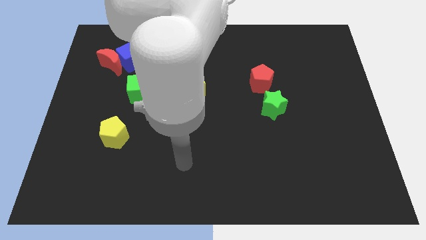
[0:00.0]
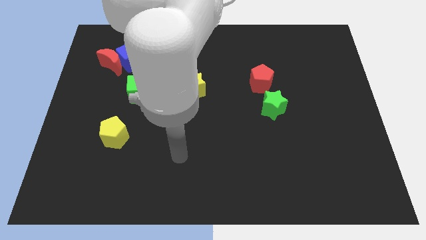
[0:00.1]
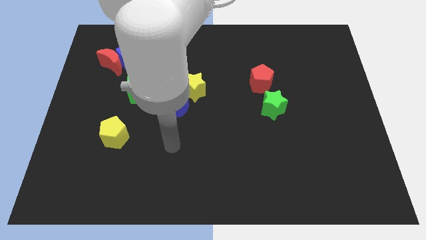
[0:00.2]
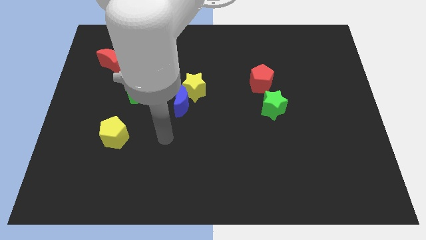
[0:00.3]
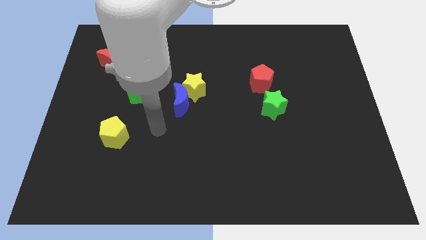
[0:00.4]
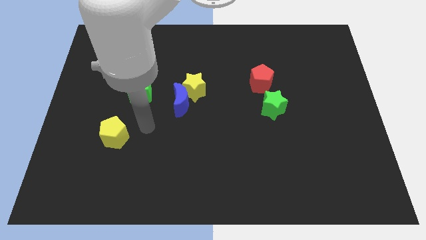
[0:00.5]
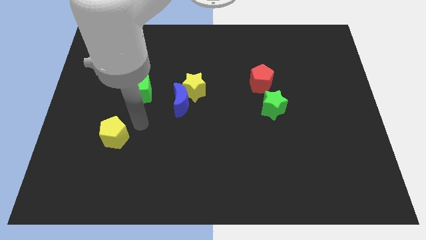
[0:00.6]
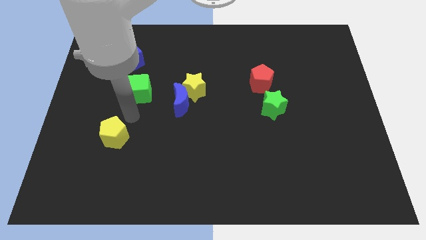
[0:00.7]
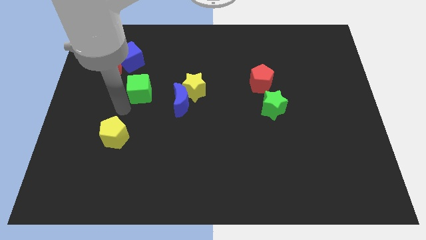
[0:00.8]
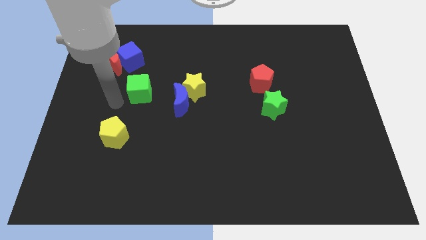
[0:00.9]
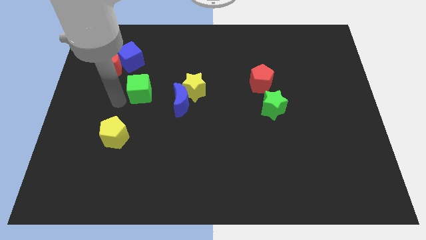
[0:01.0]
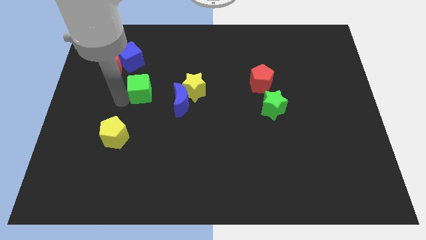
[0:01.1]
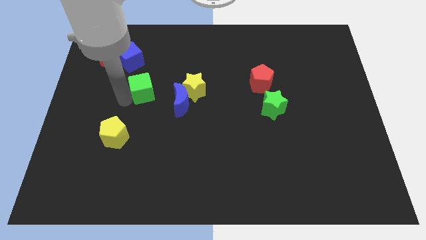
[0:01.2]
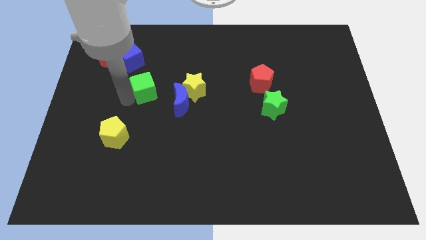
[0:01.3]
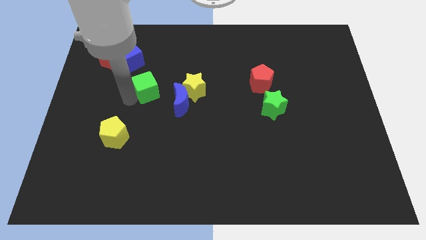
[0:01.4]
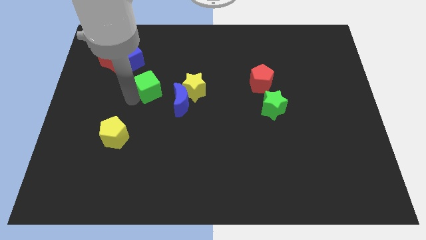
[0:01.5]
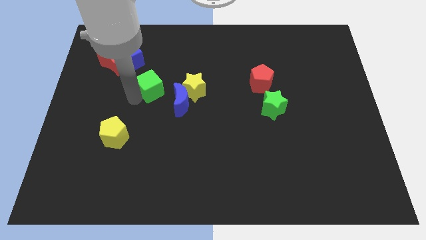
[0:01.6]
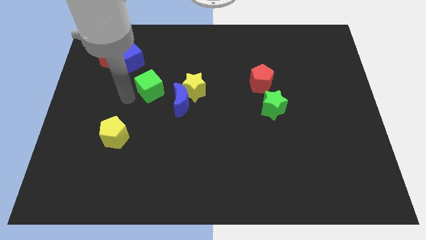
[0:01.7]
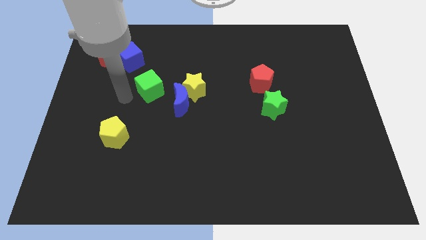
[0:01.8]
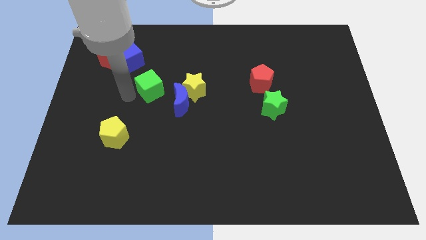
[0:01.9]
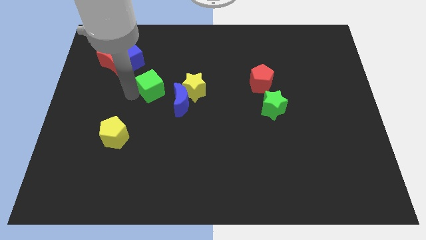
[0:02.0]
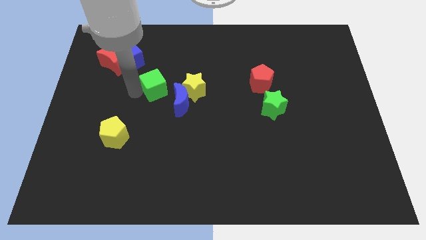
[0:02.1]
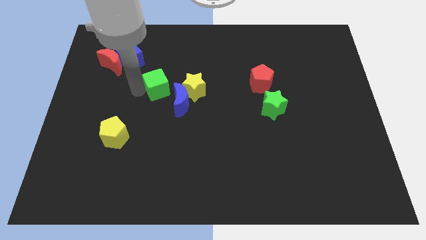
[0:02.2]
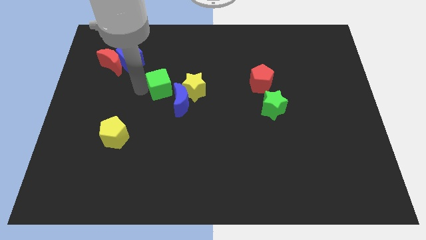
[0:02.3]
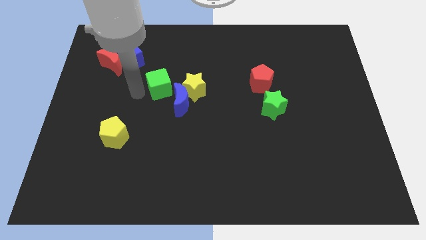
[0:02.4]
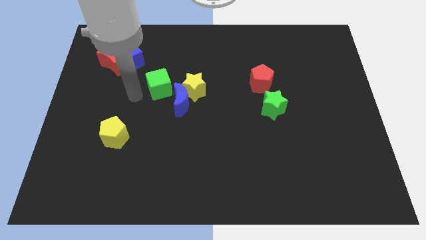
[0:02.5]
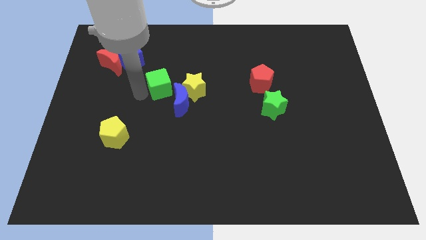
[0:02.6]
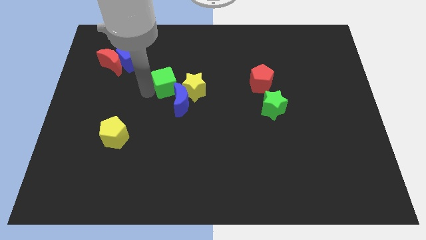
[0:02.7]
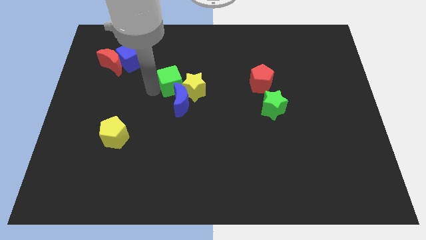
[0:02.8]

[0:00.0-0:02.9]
slightly move the green cube right

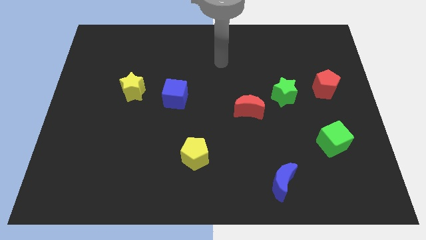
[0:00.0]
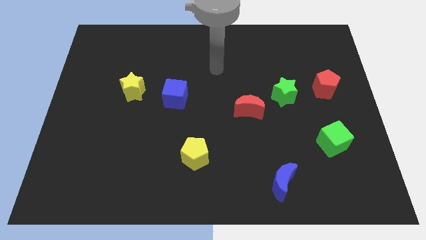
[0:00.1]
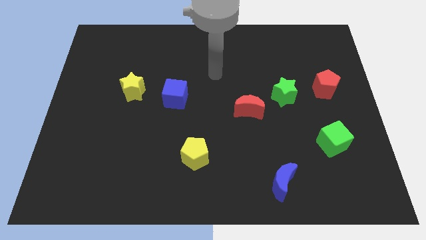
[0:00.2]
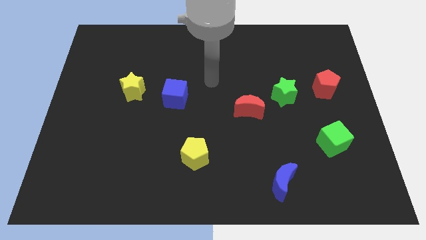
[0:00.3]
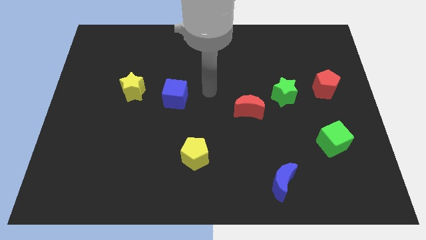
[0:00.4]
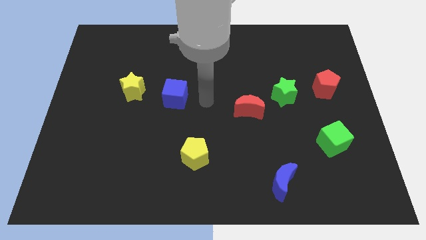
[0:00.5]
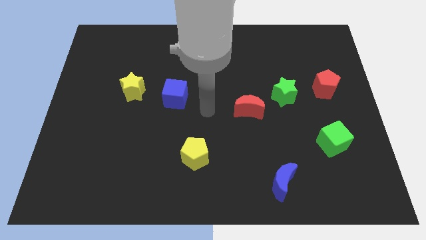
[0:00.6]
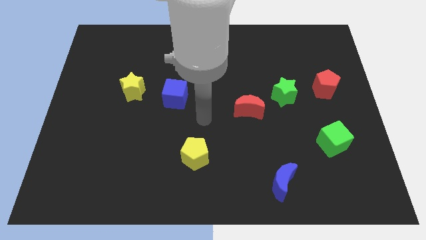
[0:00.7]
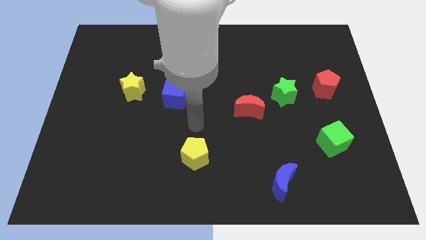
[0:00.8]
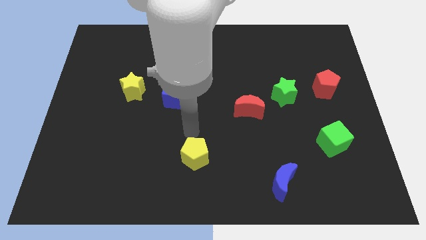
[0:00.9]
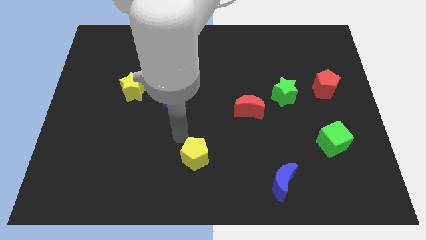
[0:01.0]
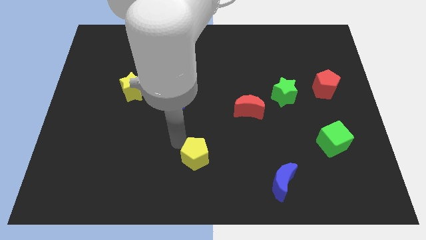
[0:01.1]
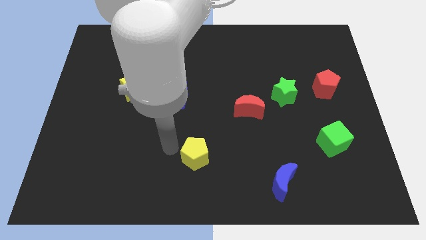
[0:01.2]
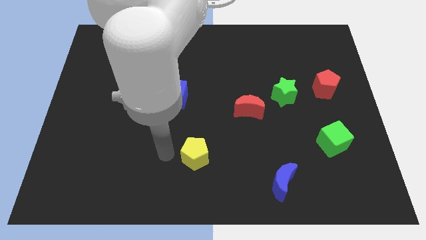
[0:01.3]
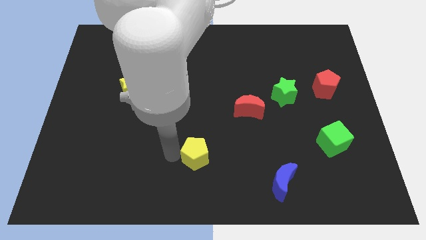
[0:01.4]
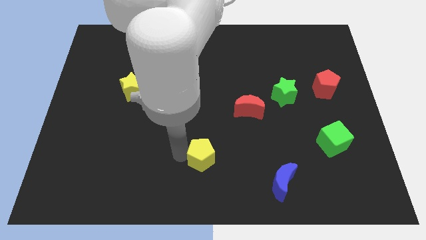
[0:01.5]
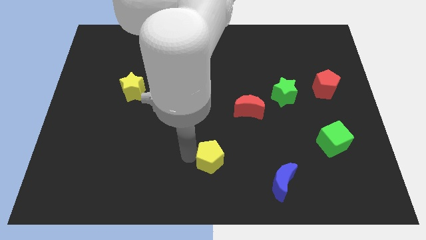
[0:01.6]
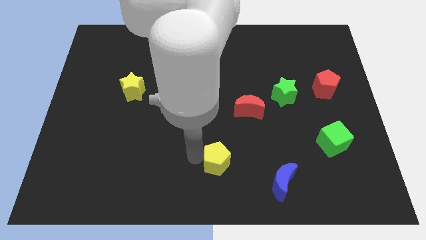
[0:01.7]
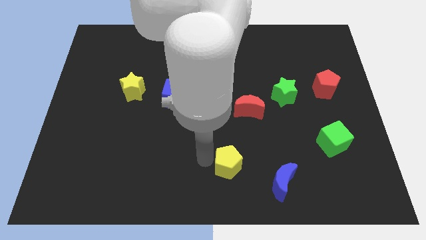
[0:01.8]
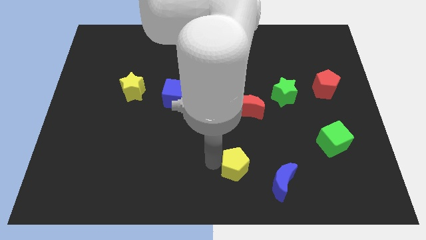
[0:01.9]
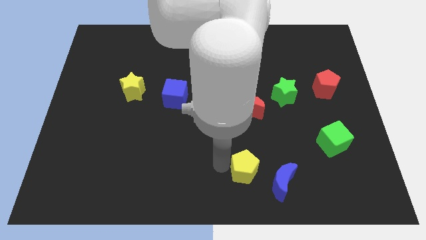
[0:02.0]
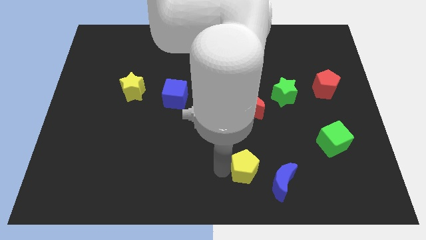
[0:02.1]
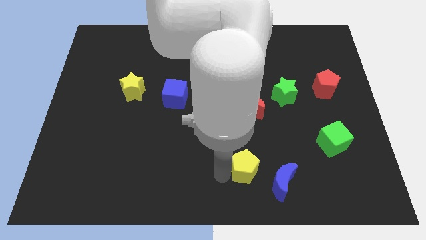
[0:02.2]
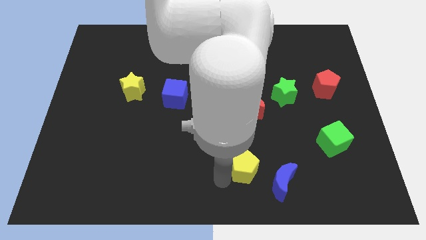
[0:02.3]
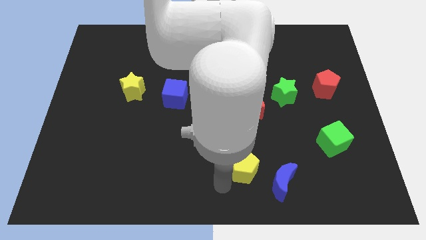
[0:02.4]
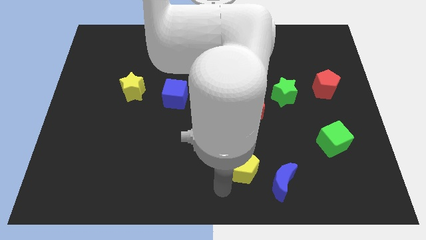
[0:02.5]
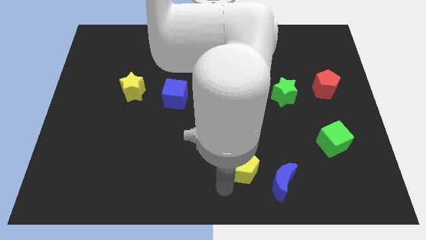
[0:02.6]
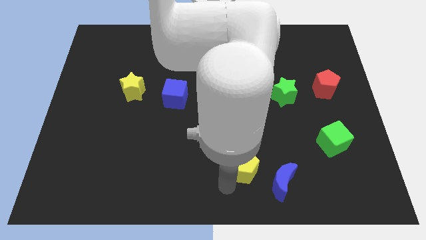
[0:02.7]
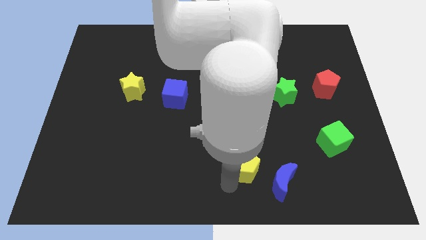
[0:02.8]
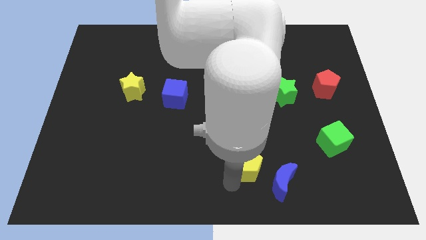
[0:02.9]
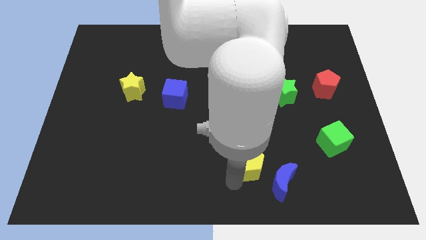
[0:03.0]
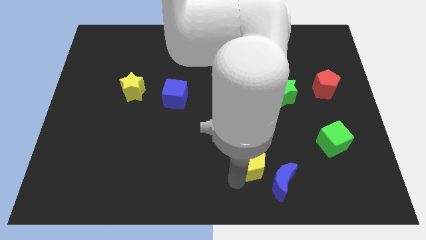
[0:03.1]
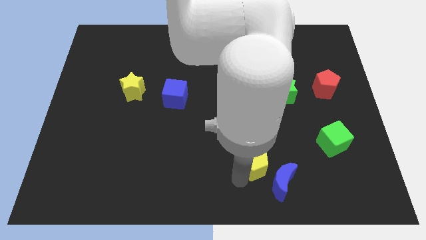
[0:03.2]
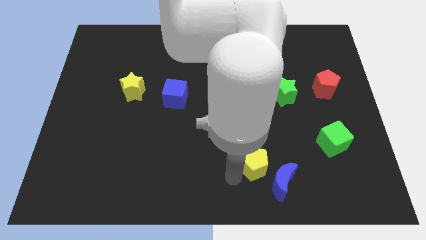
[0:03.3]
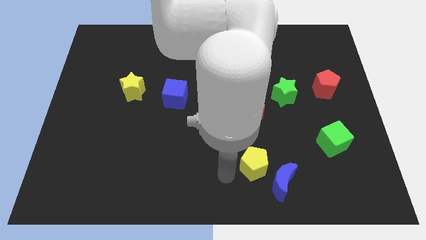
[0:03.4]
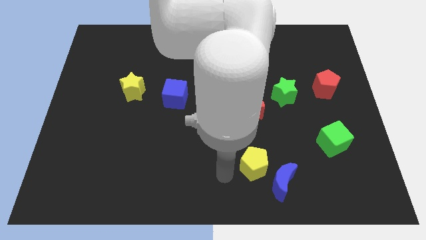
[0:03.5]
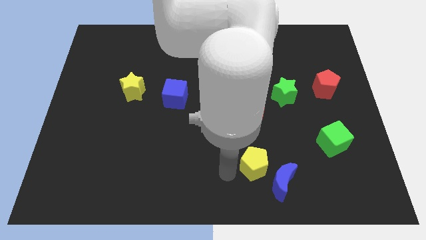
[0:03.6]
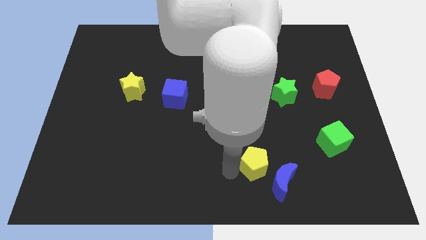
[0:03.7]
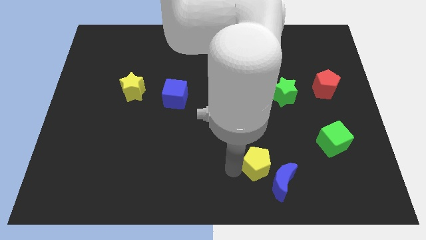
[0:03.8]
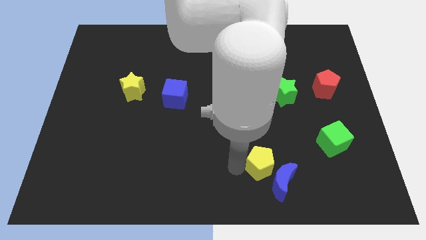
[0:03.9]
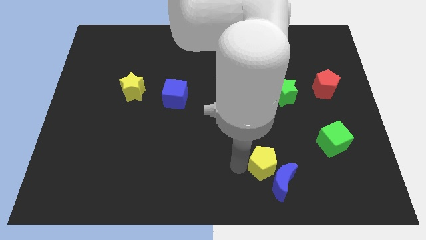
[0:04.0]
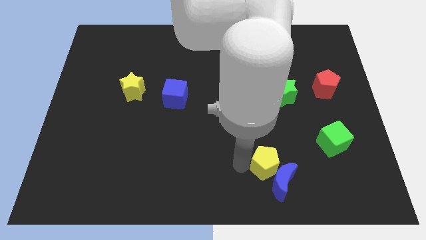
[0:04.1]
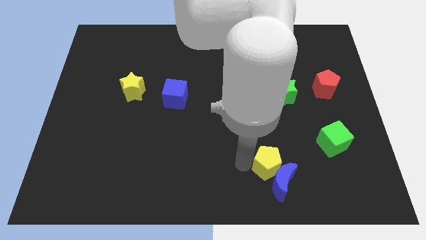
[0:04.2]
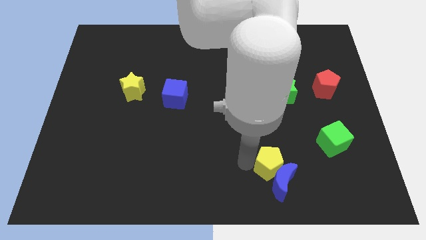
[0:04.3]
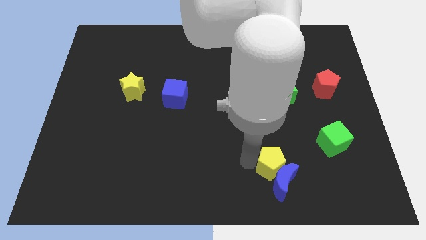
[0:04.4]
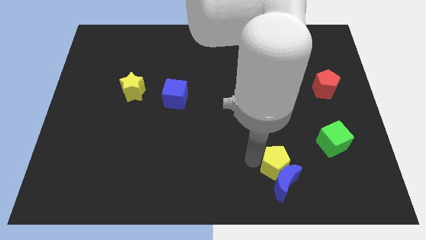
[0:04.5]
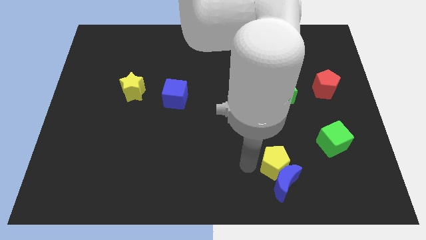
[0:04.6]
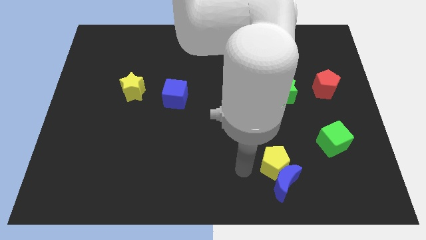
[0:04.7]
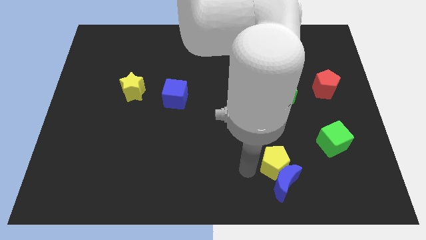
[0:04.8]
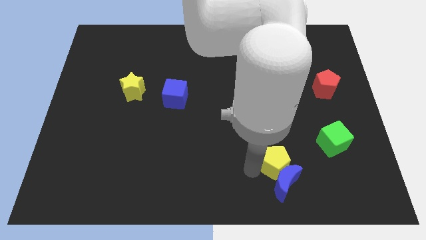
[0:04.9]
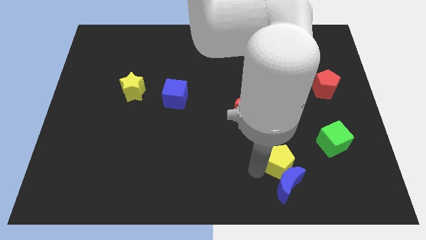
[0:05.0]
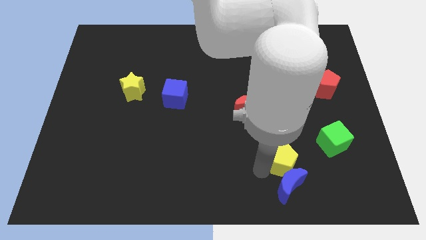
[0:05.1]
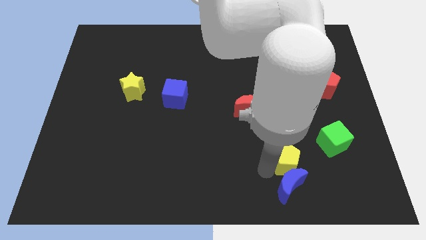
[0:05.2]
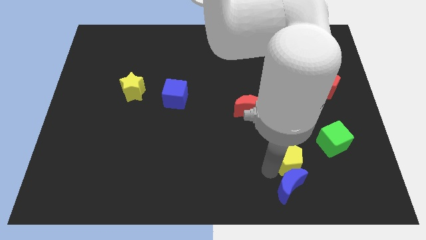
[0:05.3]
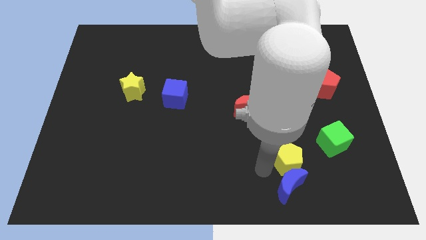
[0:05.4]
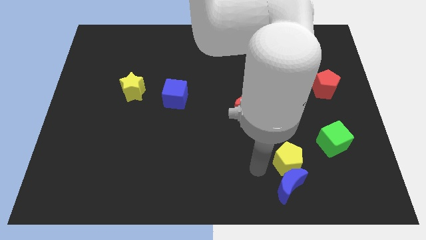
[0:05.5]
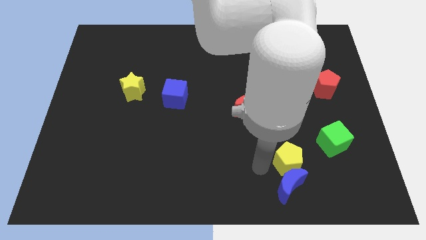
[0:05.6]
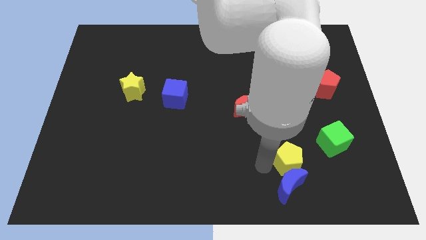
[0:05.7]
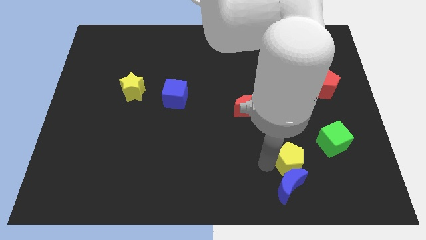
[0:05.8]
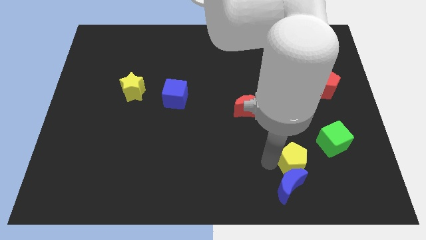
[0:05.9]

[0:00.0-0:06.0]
push the yellow pentagon right
